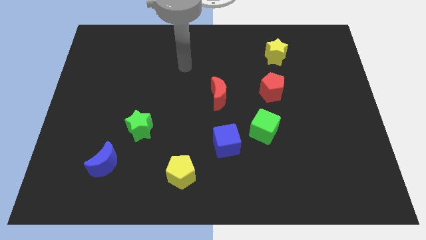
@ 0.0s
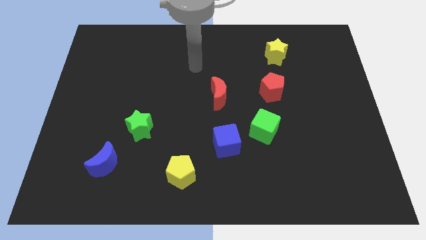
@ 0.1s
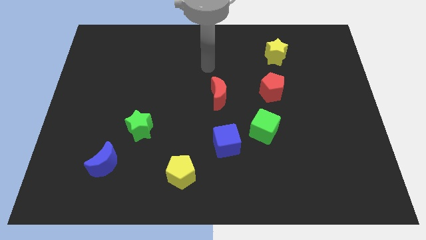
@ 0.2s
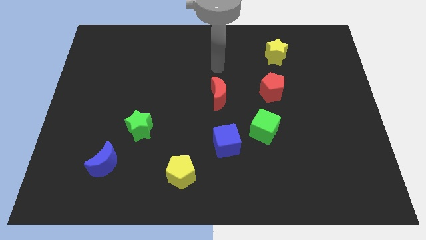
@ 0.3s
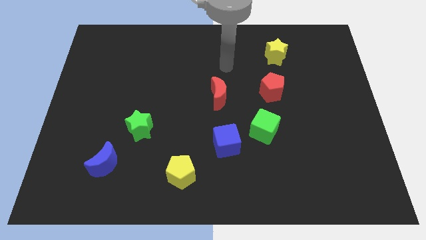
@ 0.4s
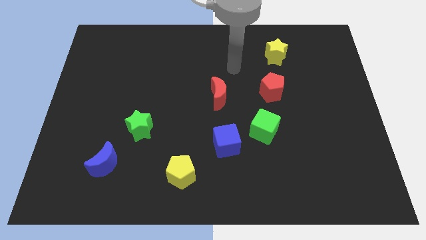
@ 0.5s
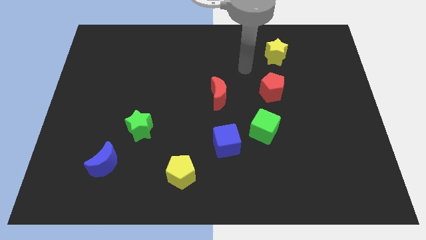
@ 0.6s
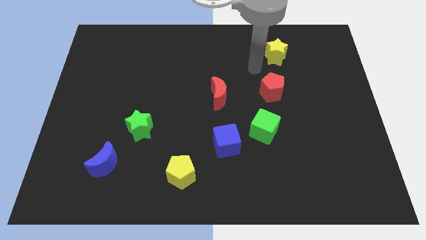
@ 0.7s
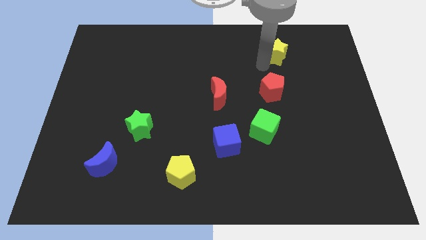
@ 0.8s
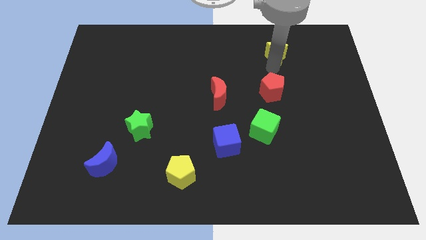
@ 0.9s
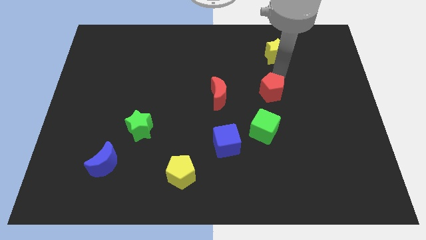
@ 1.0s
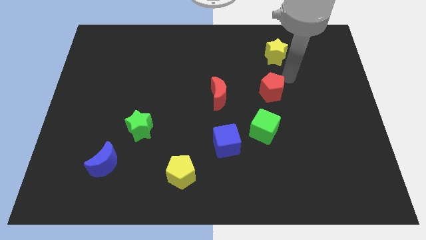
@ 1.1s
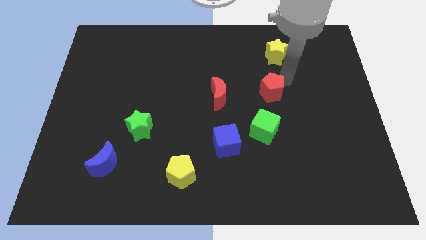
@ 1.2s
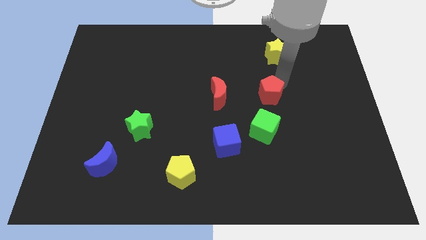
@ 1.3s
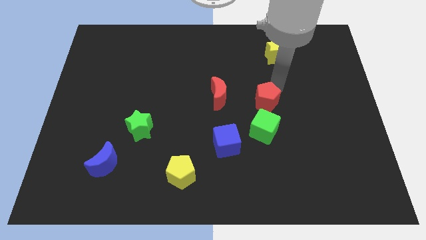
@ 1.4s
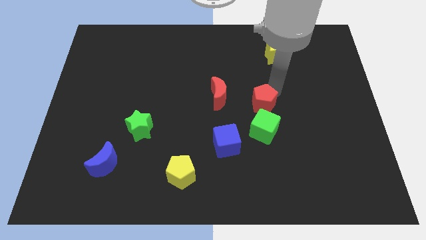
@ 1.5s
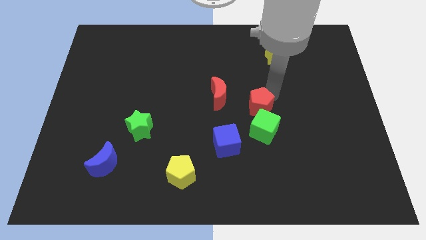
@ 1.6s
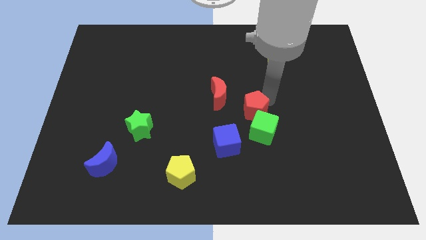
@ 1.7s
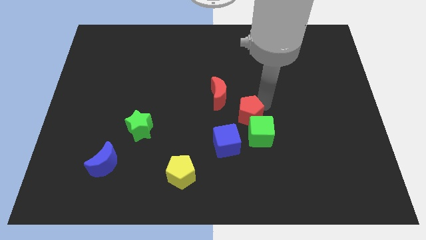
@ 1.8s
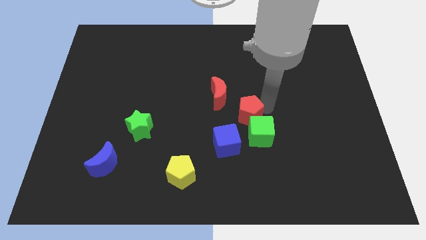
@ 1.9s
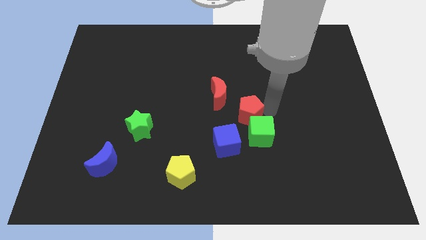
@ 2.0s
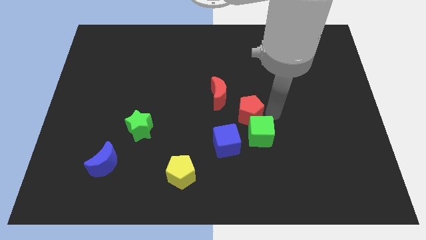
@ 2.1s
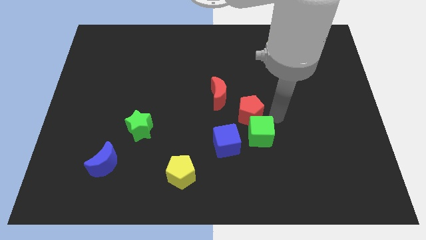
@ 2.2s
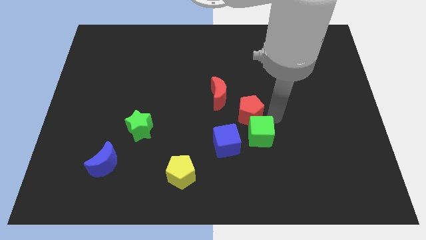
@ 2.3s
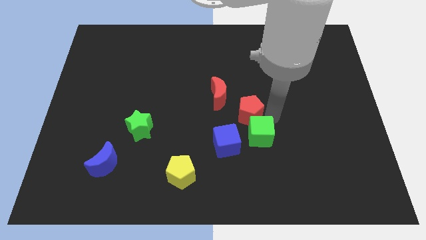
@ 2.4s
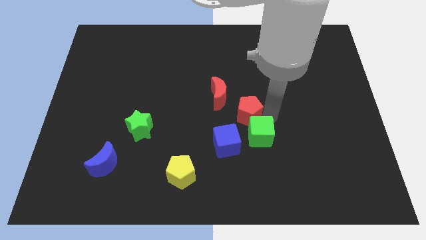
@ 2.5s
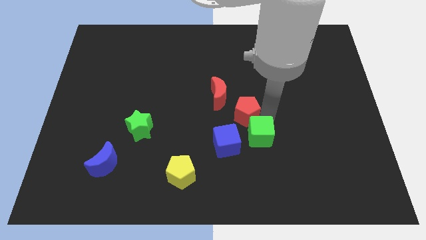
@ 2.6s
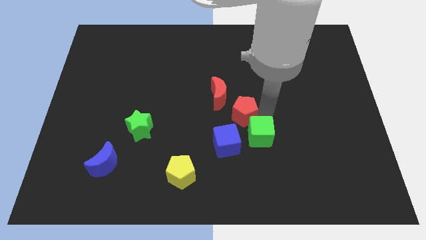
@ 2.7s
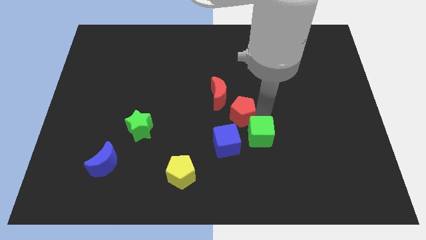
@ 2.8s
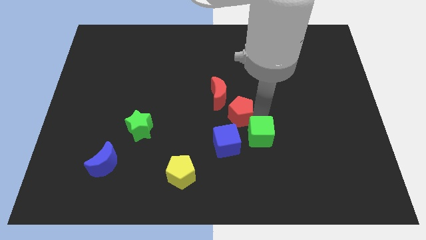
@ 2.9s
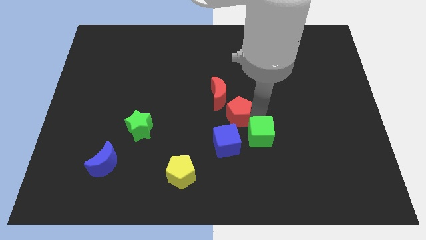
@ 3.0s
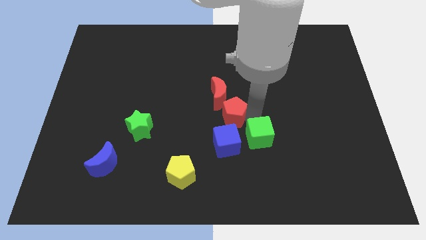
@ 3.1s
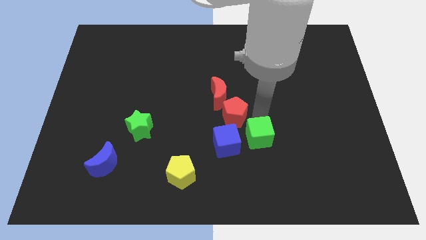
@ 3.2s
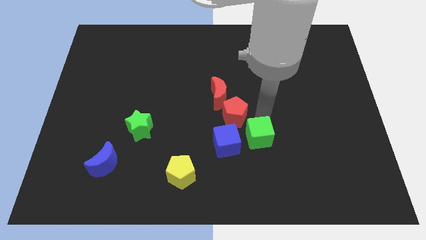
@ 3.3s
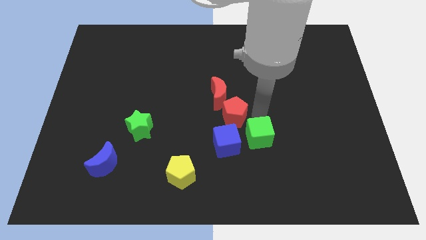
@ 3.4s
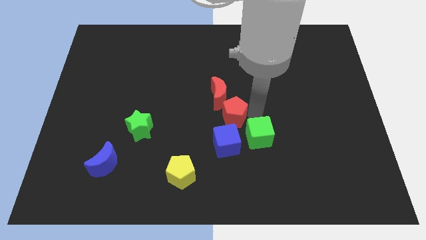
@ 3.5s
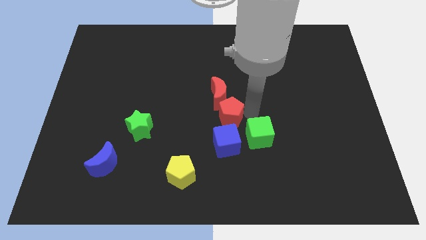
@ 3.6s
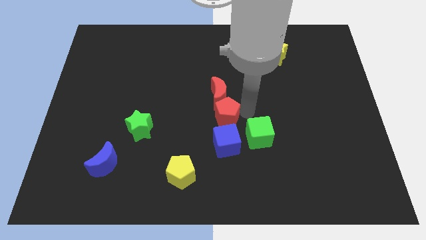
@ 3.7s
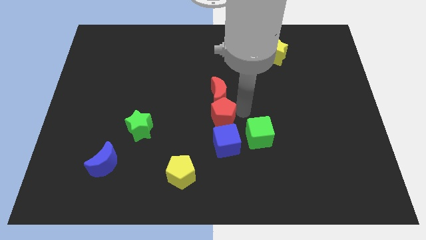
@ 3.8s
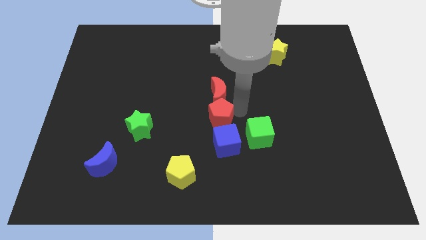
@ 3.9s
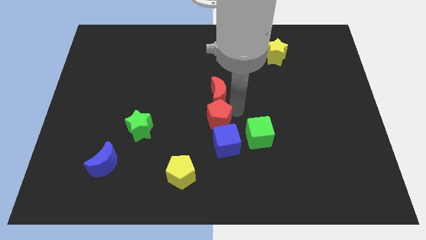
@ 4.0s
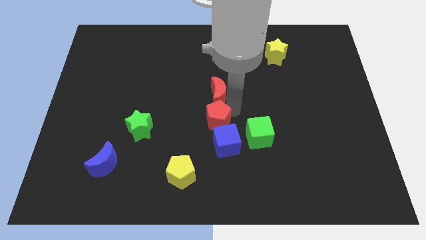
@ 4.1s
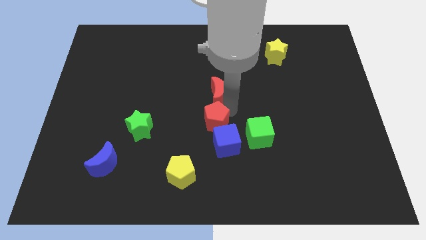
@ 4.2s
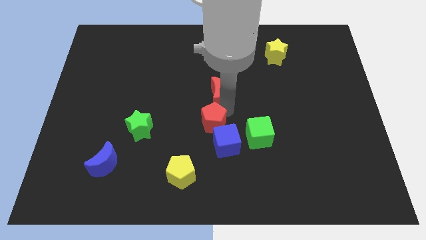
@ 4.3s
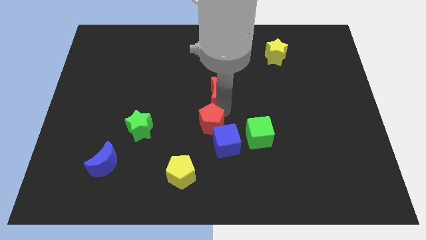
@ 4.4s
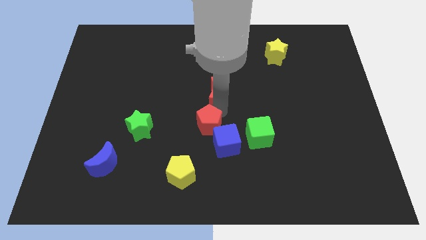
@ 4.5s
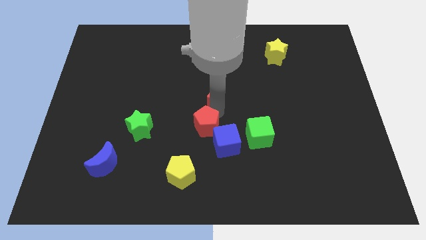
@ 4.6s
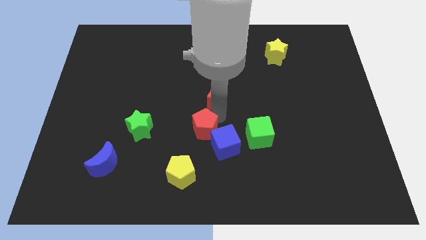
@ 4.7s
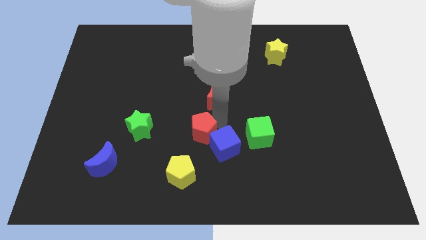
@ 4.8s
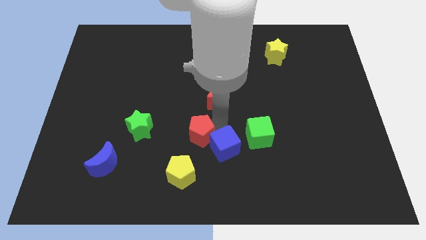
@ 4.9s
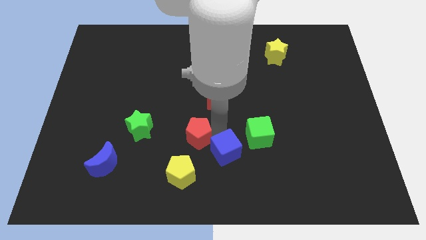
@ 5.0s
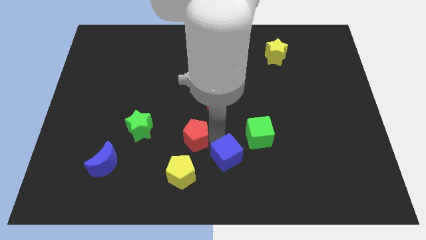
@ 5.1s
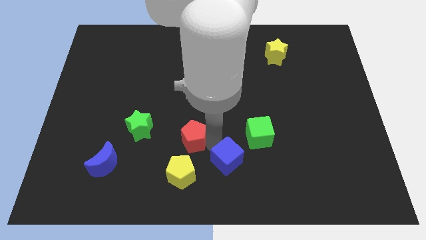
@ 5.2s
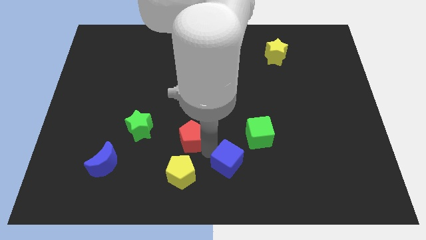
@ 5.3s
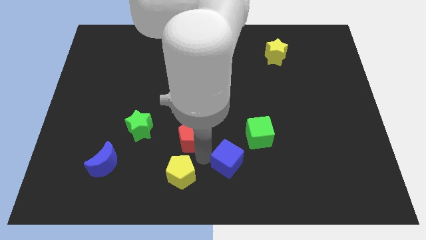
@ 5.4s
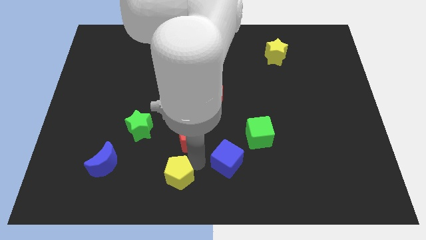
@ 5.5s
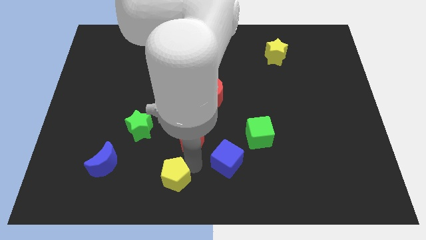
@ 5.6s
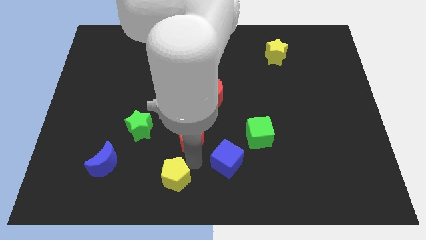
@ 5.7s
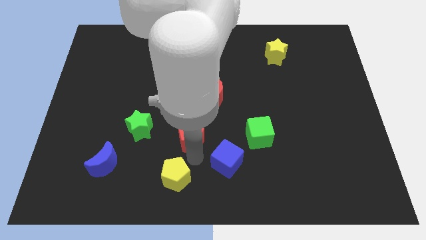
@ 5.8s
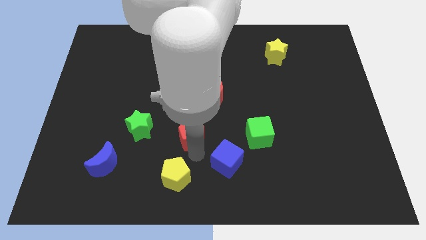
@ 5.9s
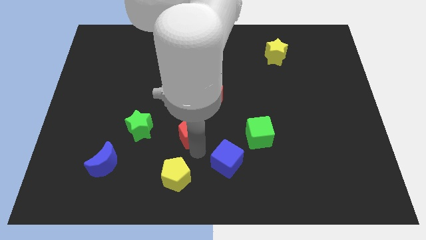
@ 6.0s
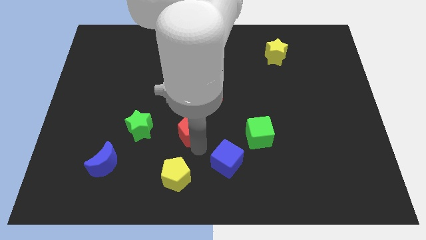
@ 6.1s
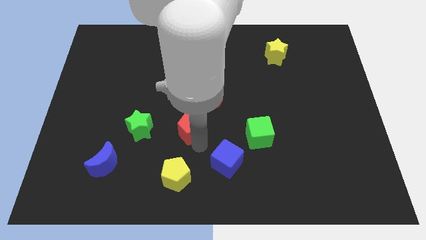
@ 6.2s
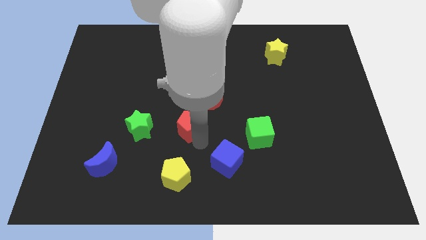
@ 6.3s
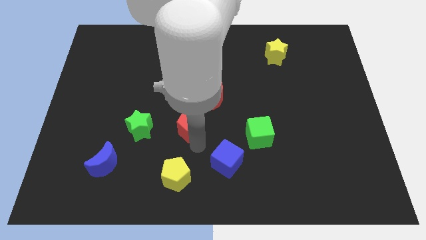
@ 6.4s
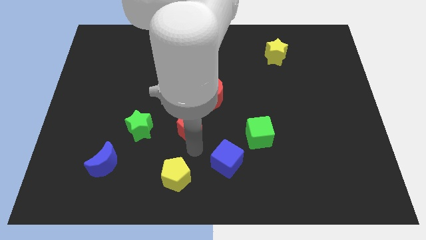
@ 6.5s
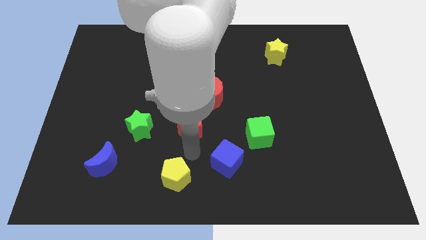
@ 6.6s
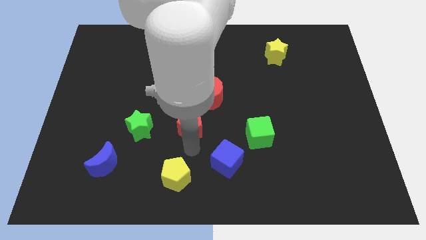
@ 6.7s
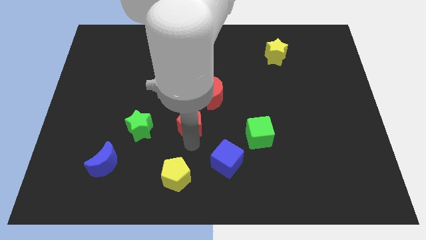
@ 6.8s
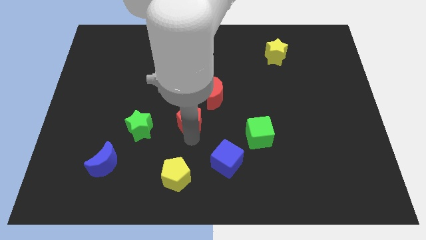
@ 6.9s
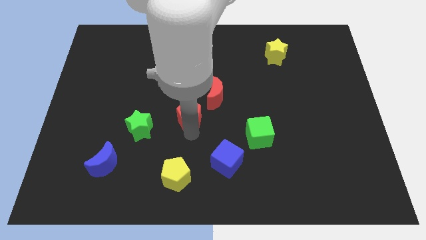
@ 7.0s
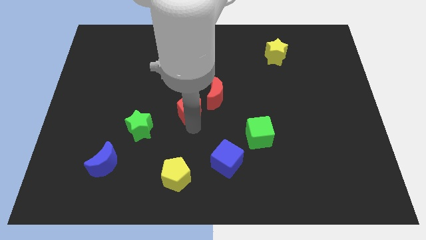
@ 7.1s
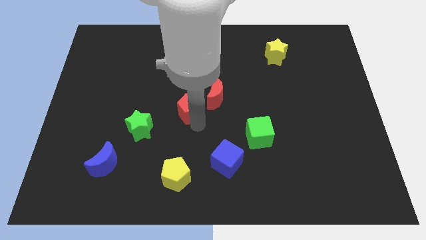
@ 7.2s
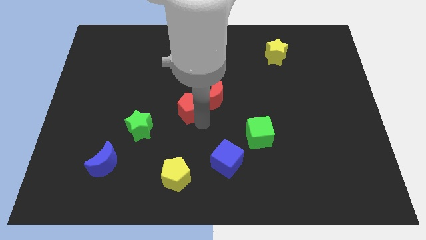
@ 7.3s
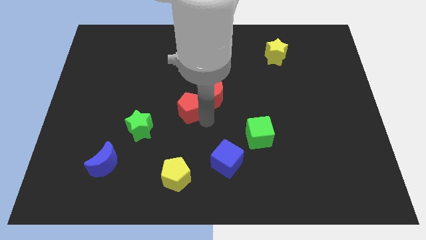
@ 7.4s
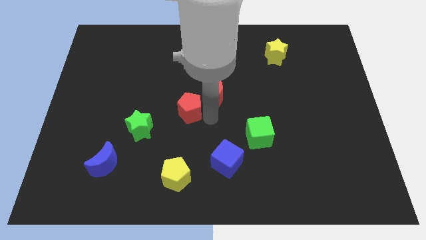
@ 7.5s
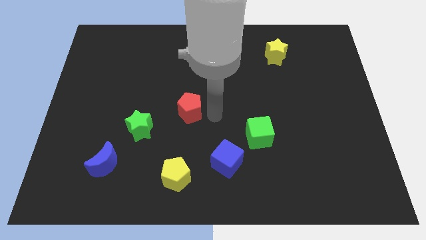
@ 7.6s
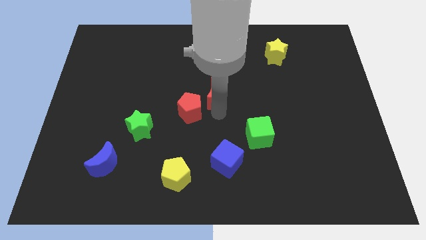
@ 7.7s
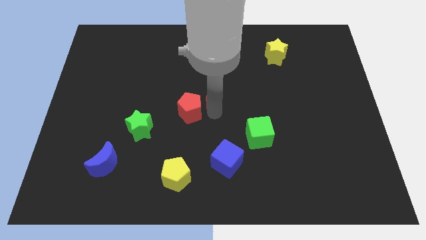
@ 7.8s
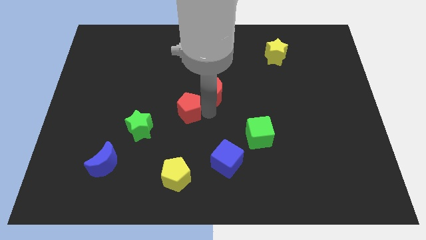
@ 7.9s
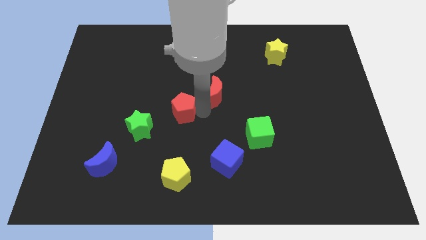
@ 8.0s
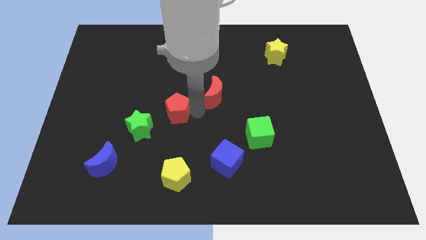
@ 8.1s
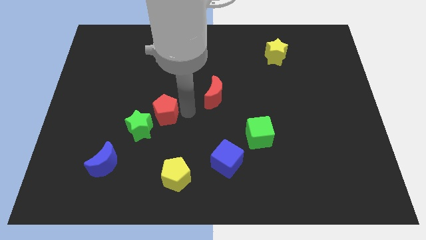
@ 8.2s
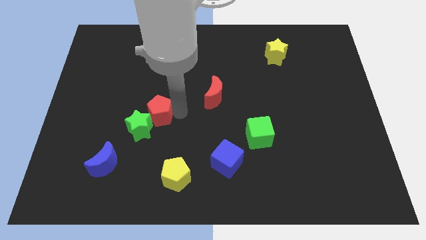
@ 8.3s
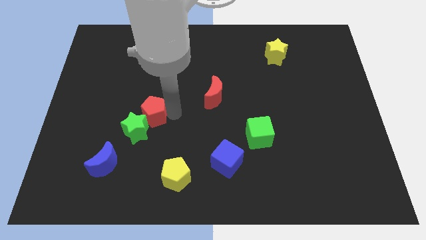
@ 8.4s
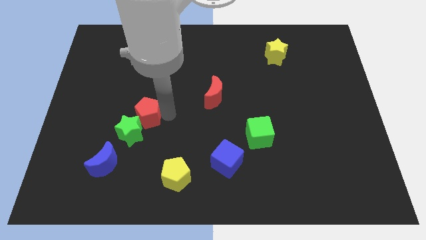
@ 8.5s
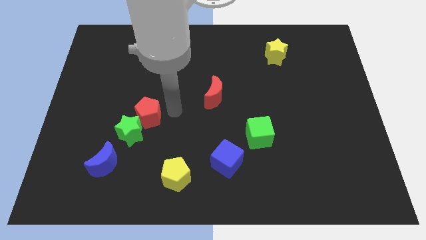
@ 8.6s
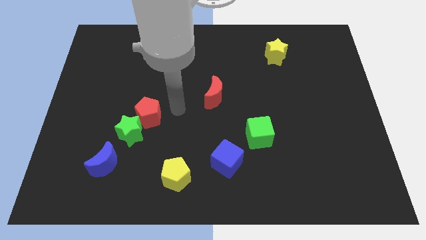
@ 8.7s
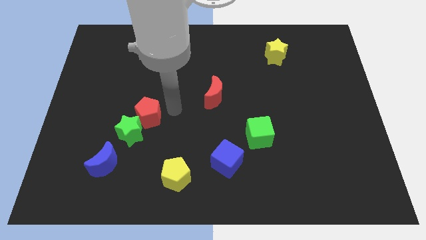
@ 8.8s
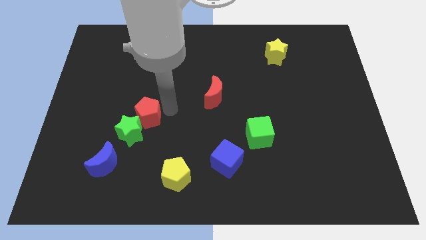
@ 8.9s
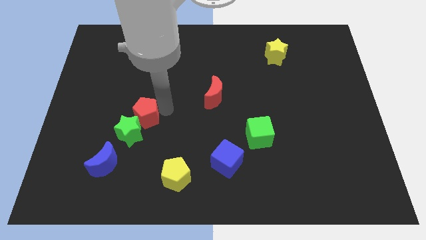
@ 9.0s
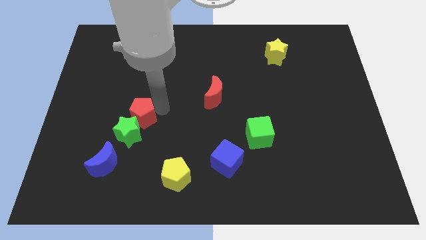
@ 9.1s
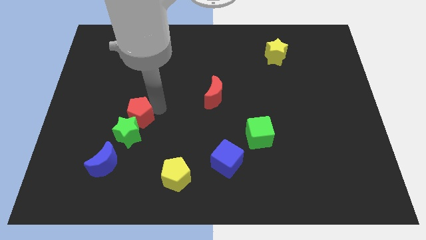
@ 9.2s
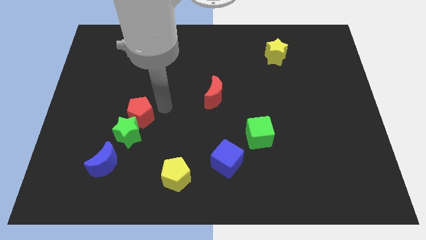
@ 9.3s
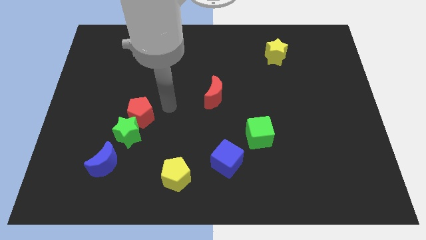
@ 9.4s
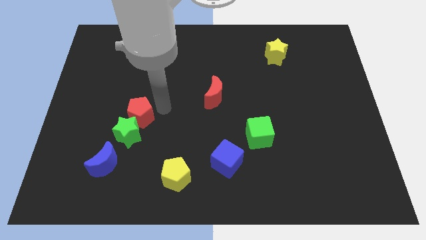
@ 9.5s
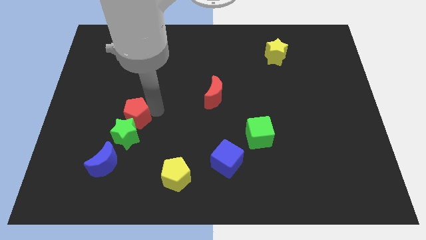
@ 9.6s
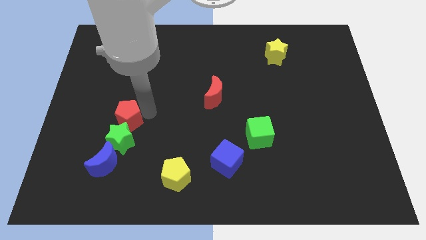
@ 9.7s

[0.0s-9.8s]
move the red pentagon to the top side of the blue moon
